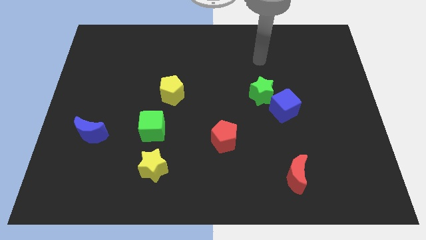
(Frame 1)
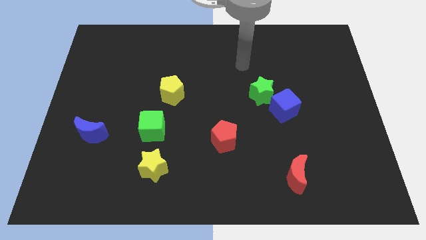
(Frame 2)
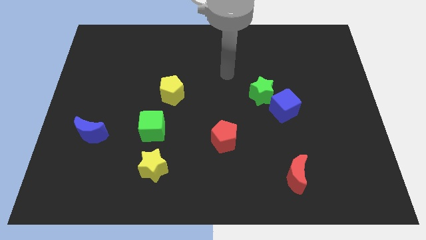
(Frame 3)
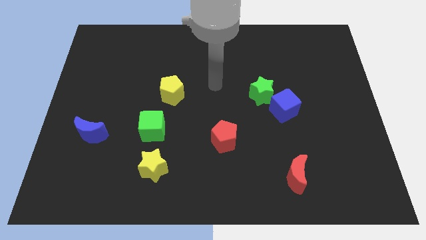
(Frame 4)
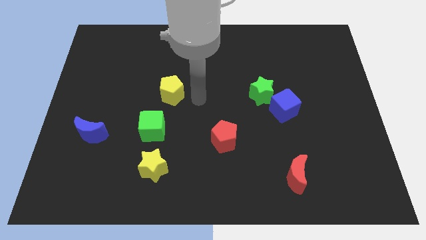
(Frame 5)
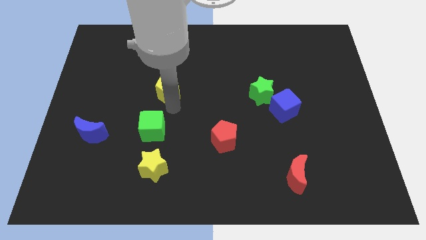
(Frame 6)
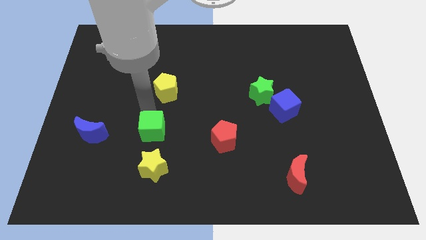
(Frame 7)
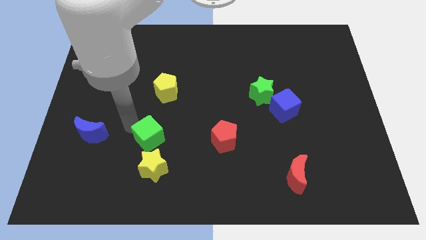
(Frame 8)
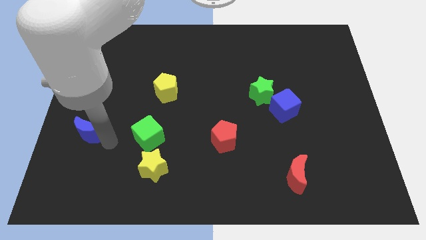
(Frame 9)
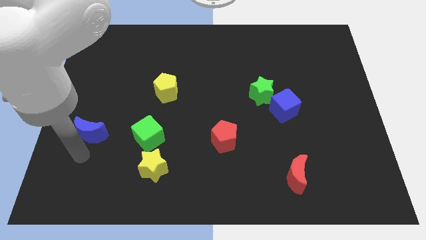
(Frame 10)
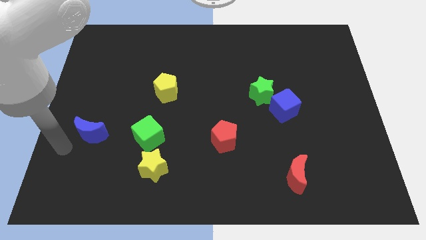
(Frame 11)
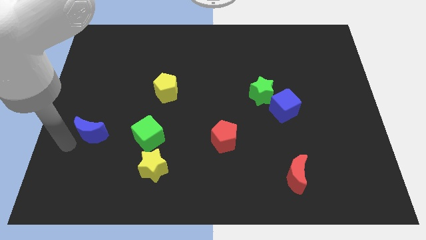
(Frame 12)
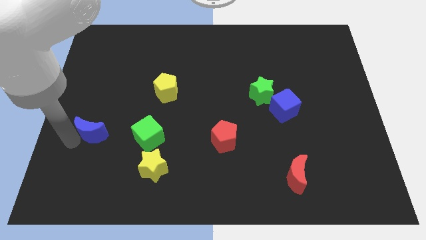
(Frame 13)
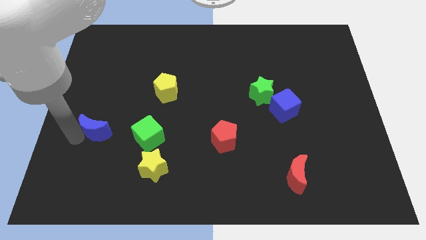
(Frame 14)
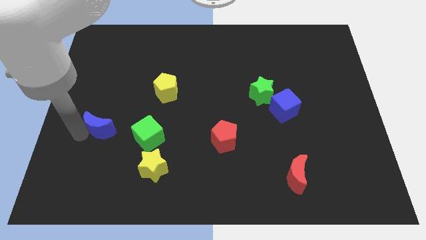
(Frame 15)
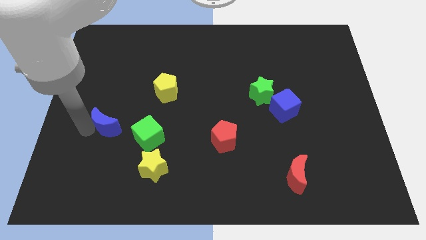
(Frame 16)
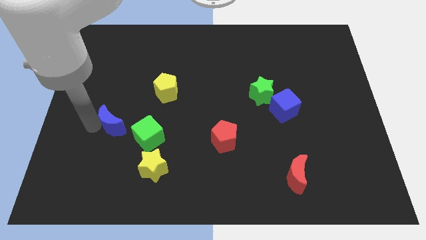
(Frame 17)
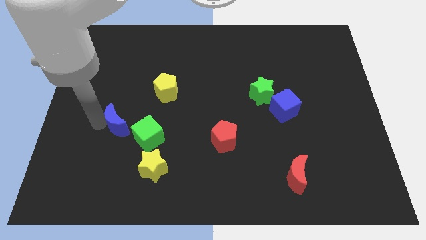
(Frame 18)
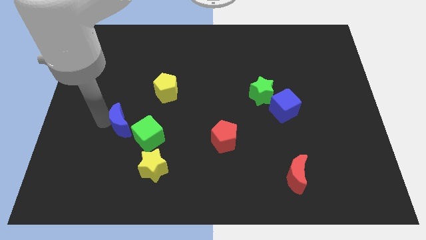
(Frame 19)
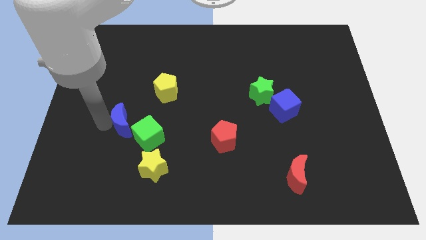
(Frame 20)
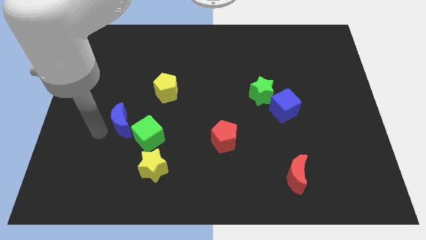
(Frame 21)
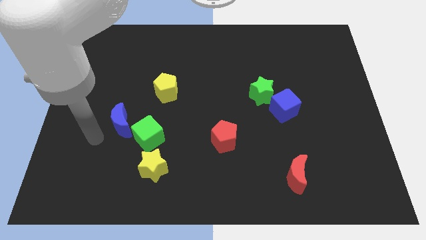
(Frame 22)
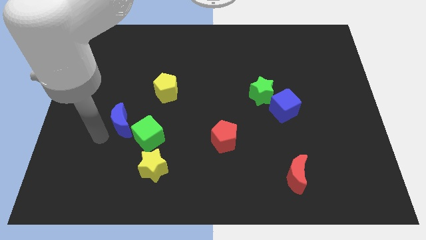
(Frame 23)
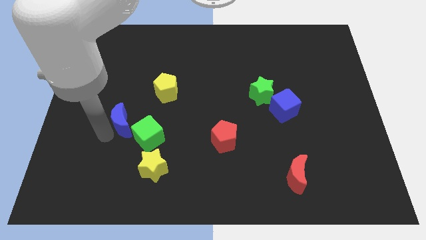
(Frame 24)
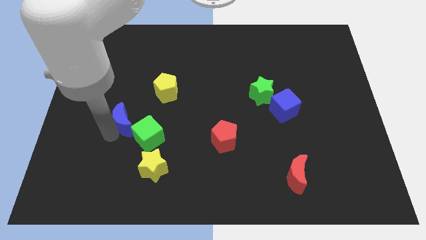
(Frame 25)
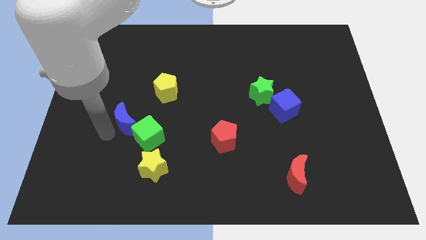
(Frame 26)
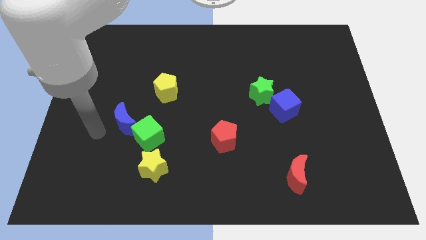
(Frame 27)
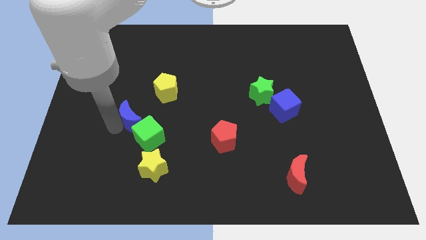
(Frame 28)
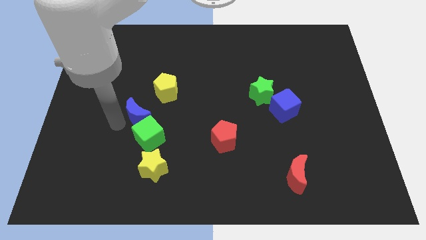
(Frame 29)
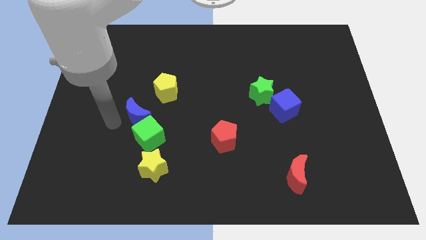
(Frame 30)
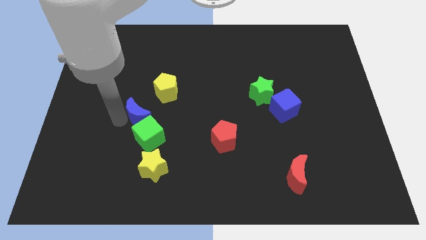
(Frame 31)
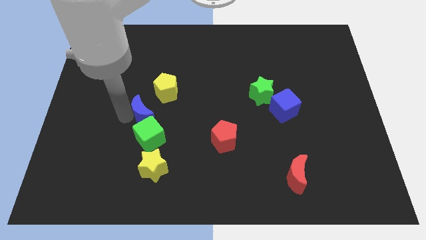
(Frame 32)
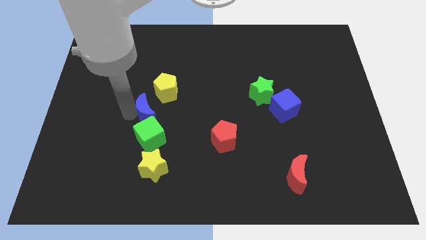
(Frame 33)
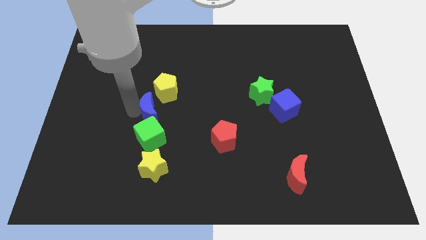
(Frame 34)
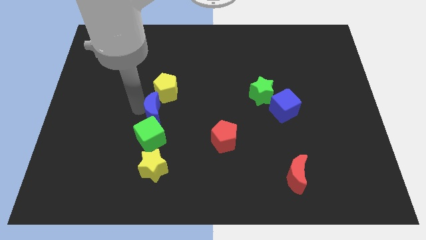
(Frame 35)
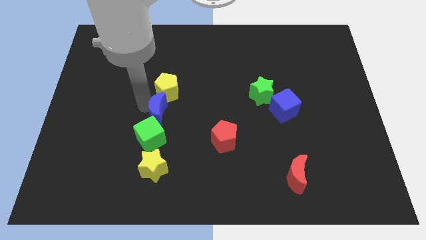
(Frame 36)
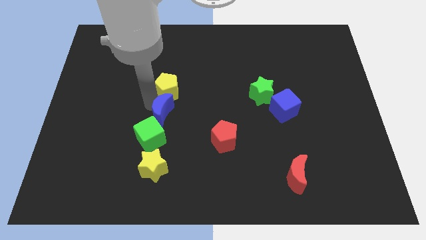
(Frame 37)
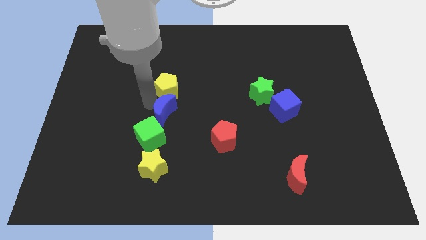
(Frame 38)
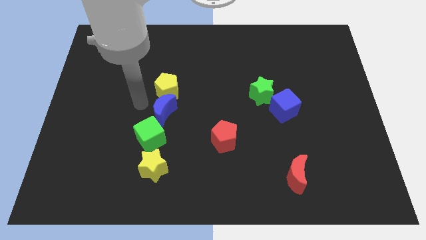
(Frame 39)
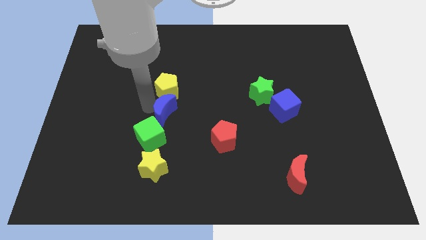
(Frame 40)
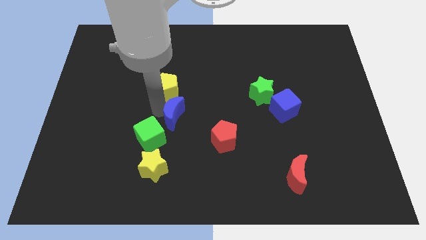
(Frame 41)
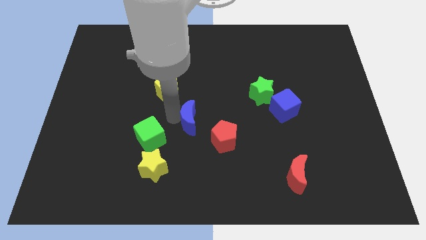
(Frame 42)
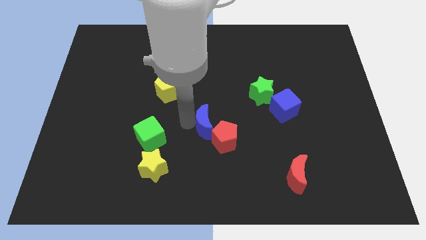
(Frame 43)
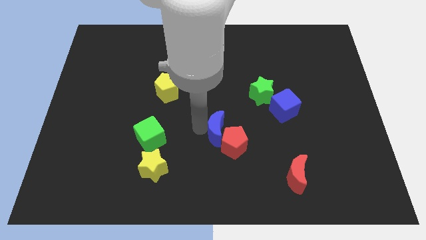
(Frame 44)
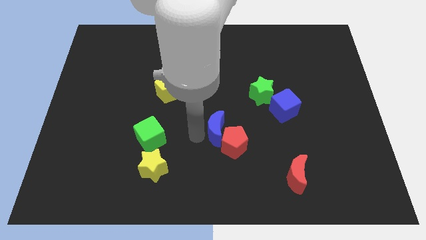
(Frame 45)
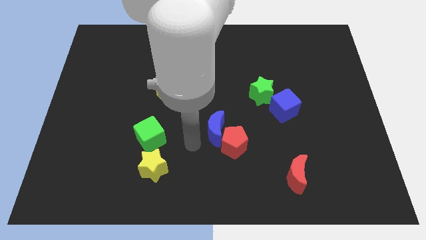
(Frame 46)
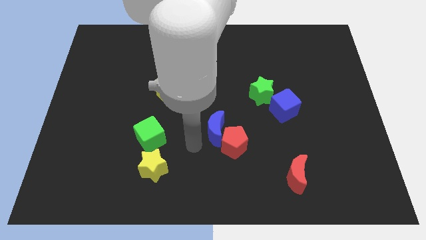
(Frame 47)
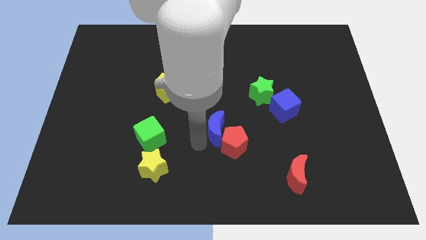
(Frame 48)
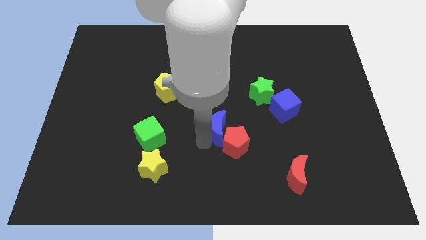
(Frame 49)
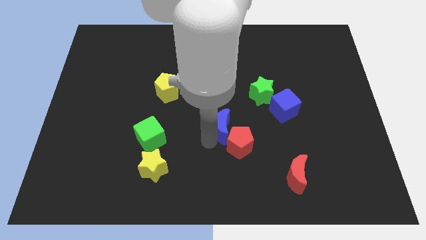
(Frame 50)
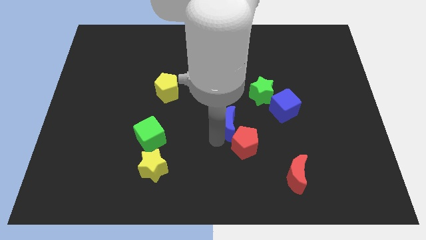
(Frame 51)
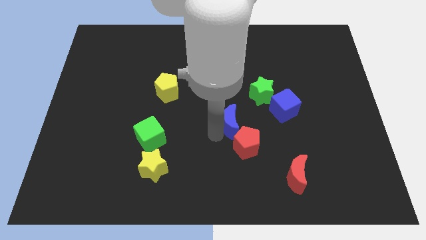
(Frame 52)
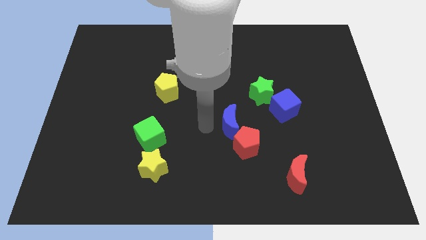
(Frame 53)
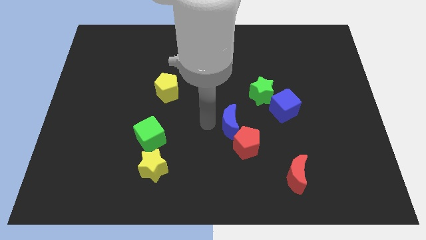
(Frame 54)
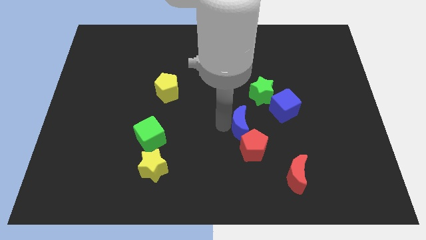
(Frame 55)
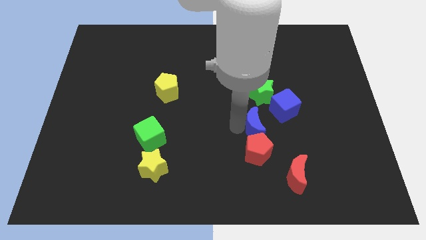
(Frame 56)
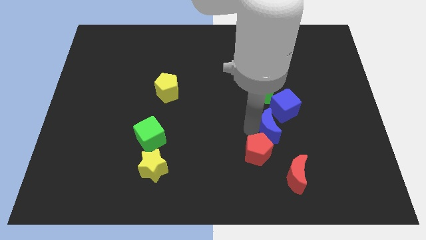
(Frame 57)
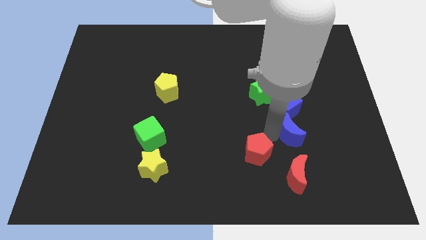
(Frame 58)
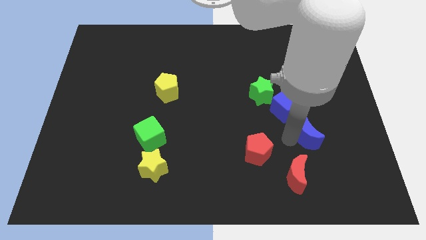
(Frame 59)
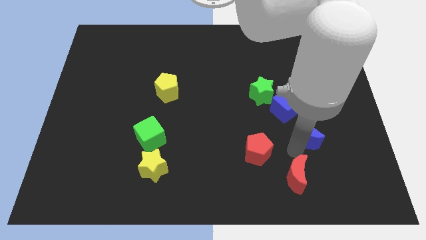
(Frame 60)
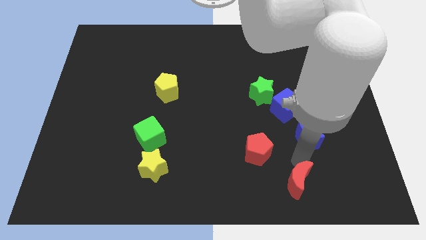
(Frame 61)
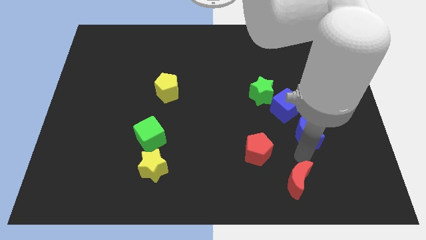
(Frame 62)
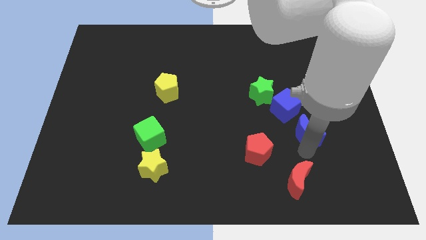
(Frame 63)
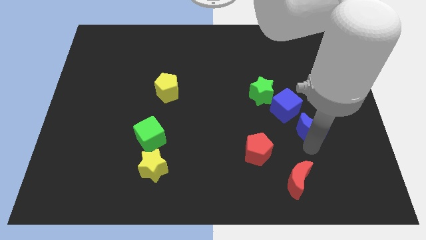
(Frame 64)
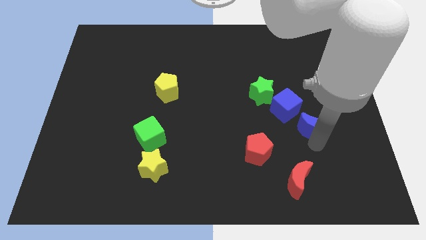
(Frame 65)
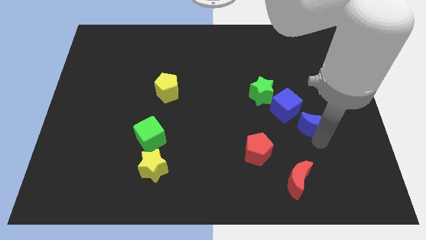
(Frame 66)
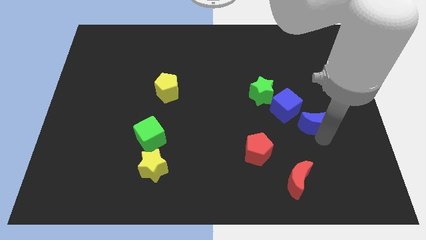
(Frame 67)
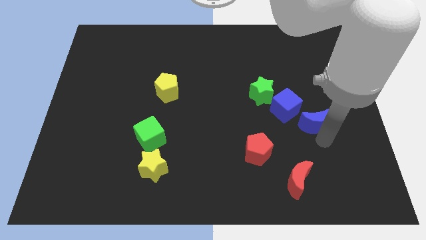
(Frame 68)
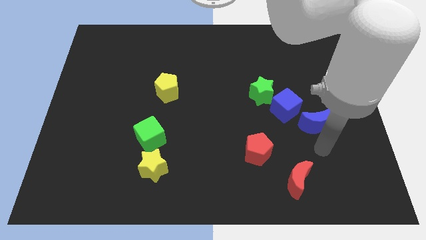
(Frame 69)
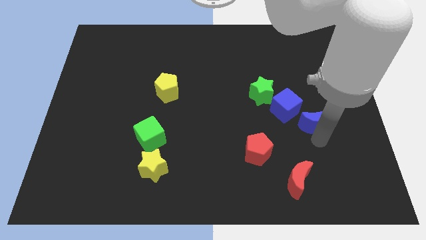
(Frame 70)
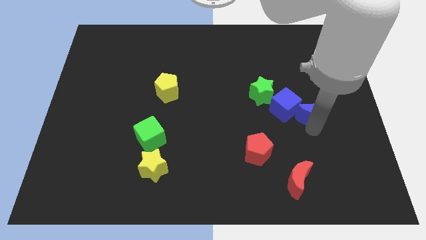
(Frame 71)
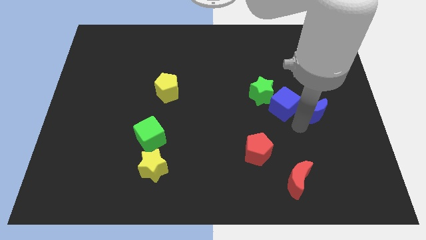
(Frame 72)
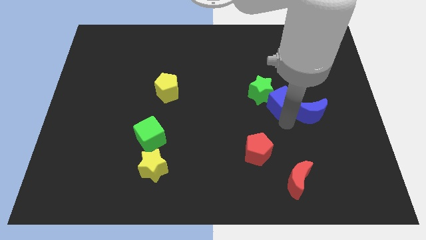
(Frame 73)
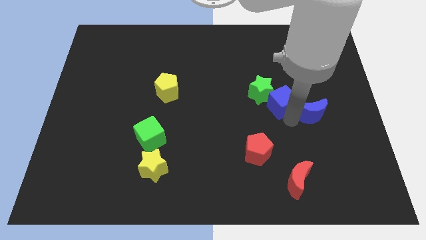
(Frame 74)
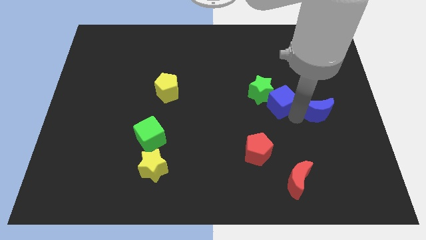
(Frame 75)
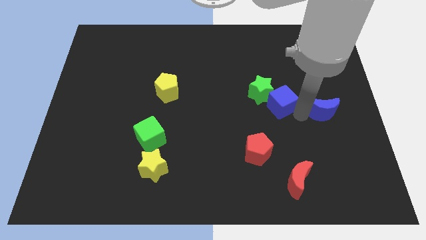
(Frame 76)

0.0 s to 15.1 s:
push the blue moon to the right side
